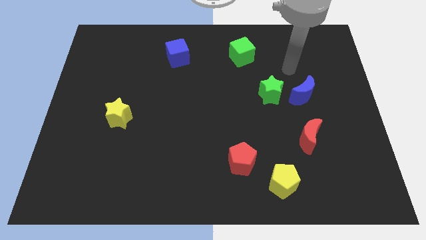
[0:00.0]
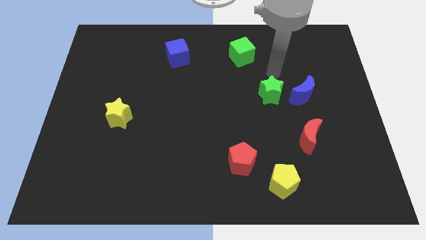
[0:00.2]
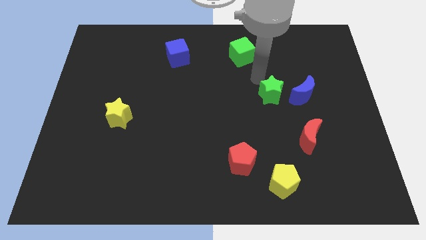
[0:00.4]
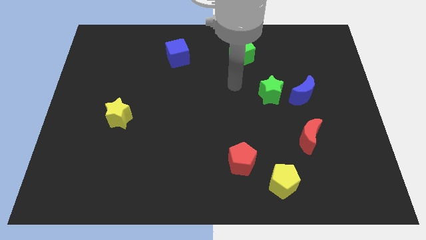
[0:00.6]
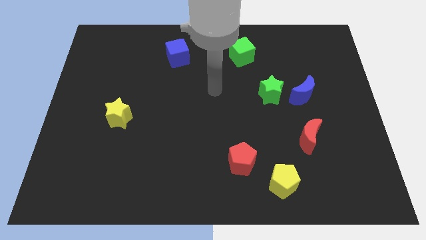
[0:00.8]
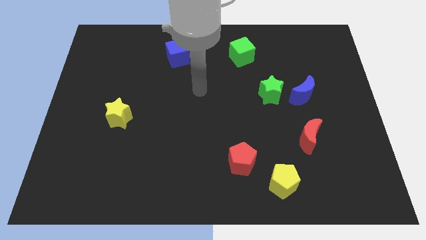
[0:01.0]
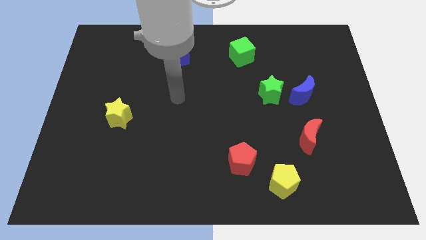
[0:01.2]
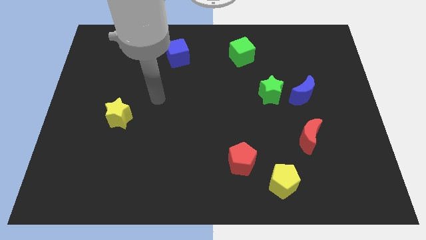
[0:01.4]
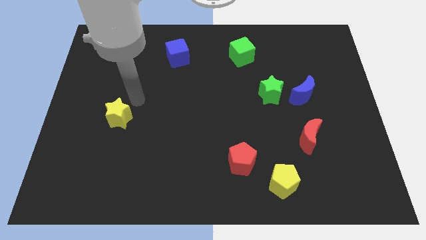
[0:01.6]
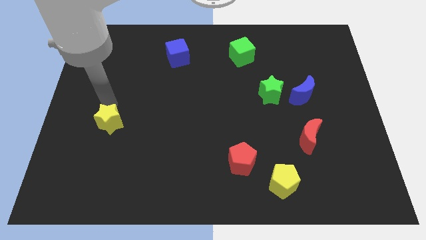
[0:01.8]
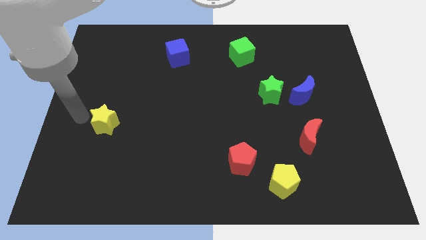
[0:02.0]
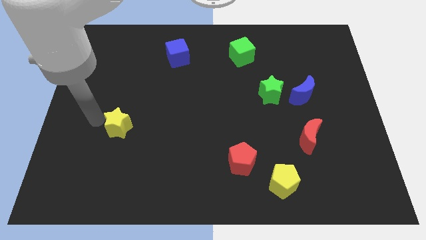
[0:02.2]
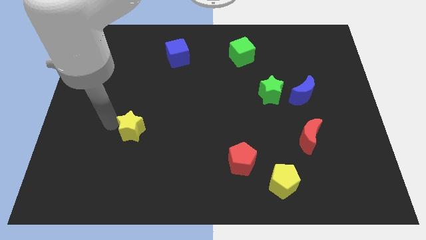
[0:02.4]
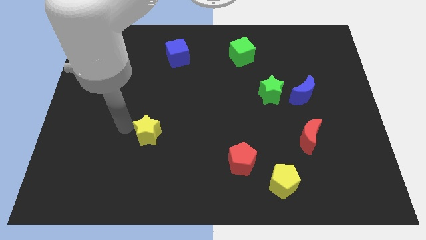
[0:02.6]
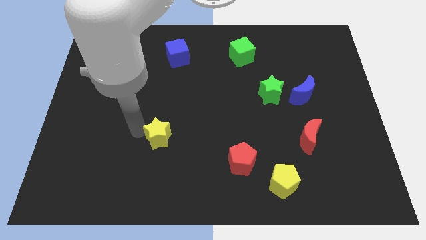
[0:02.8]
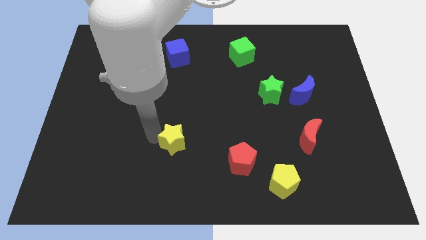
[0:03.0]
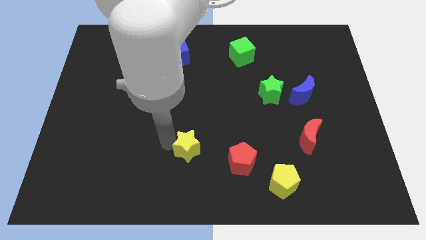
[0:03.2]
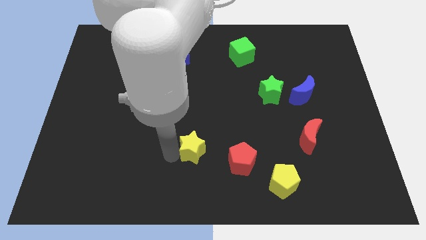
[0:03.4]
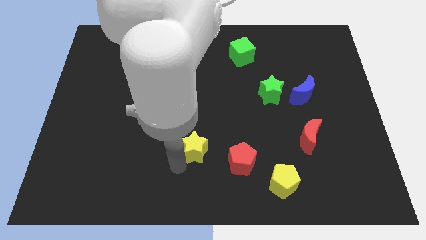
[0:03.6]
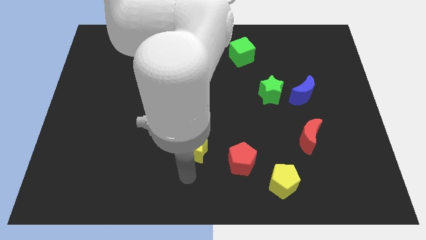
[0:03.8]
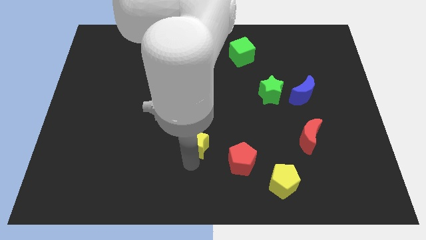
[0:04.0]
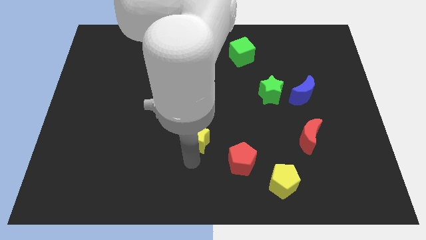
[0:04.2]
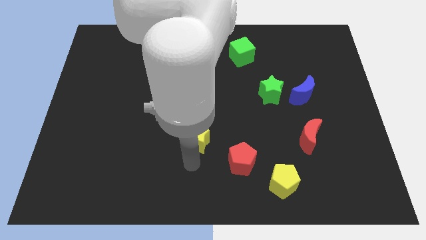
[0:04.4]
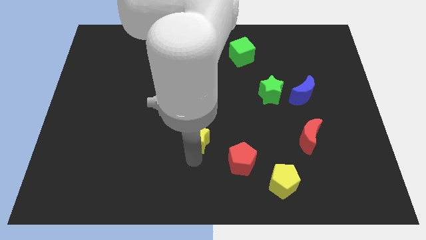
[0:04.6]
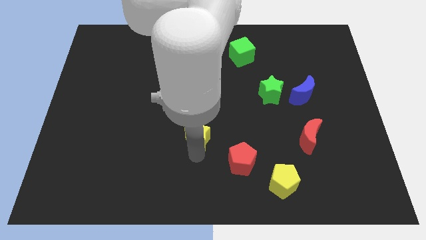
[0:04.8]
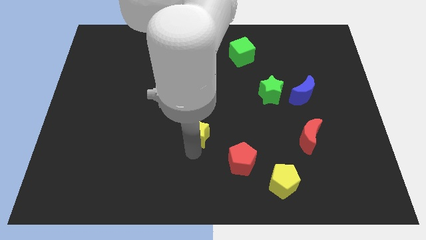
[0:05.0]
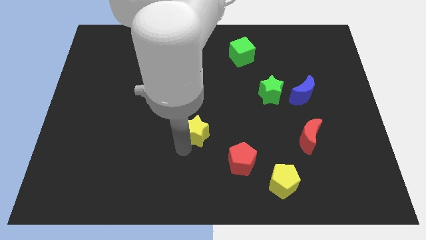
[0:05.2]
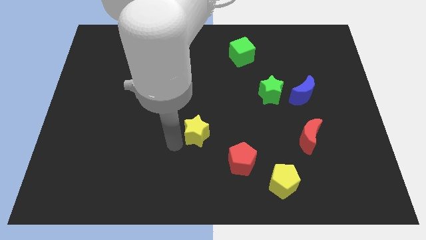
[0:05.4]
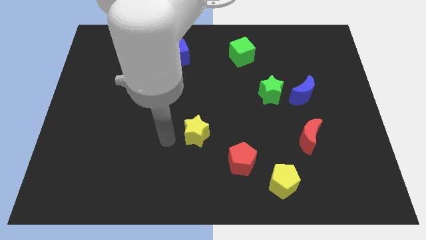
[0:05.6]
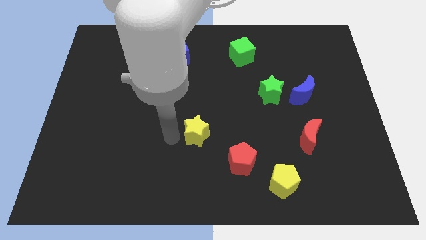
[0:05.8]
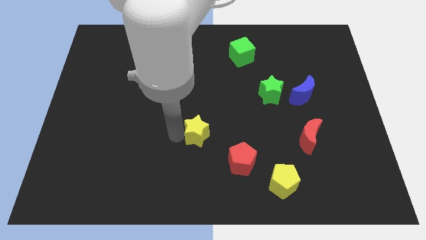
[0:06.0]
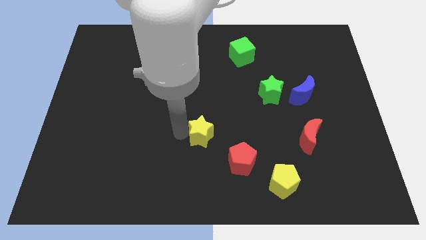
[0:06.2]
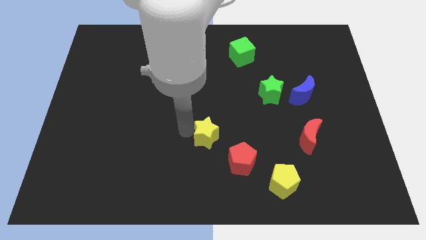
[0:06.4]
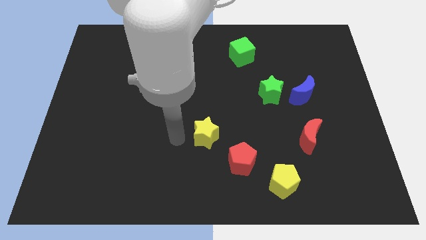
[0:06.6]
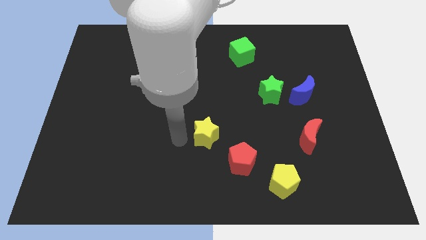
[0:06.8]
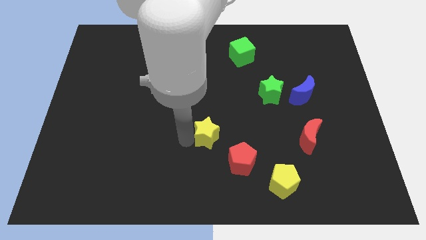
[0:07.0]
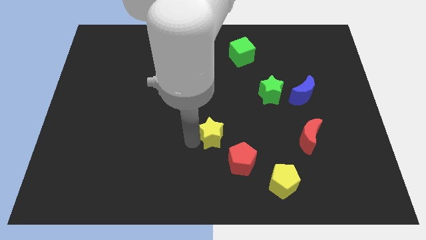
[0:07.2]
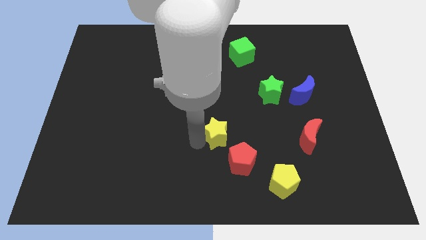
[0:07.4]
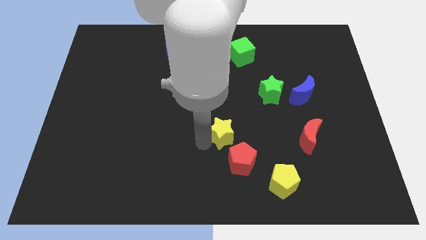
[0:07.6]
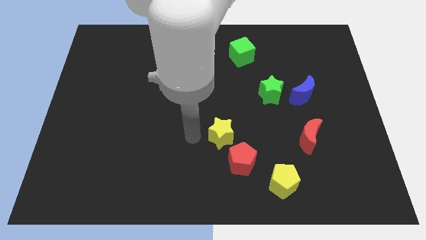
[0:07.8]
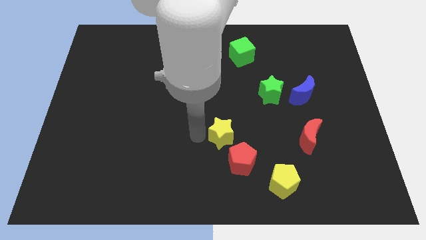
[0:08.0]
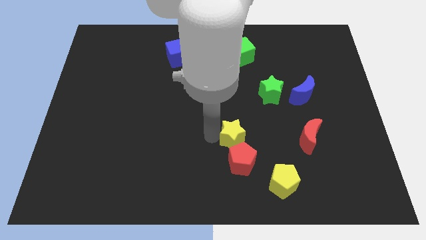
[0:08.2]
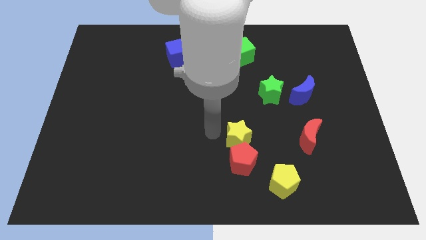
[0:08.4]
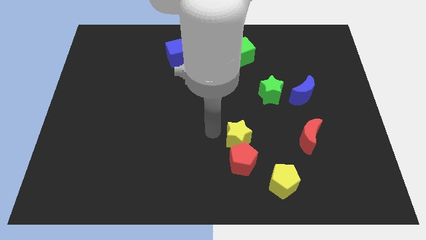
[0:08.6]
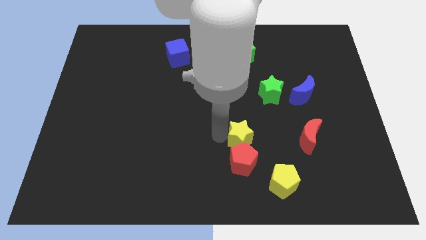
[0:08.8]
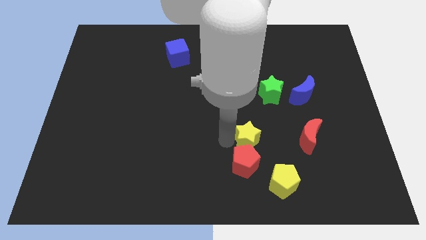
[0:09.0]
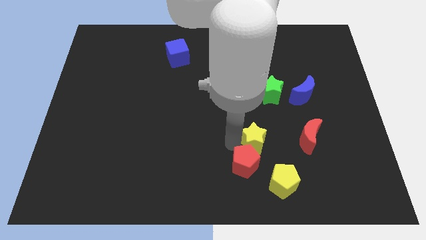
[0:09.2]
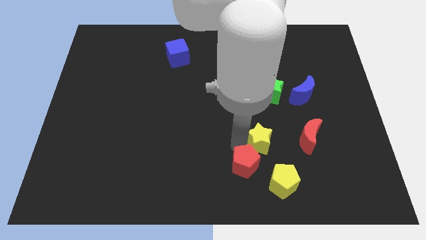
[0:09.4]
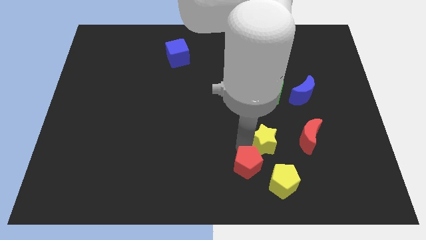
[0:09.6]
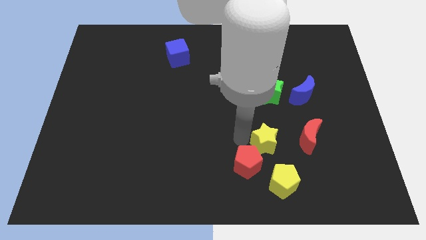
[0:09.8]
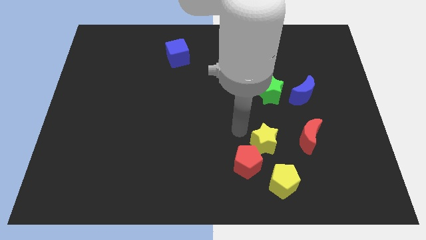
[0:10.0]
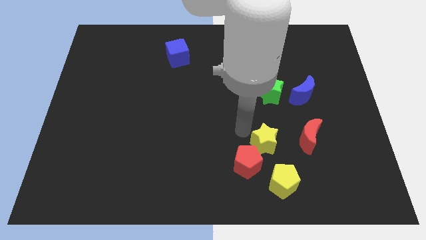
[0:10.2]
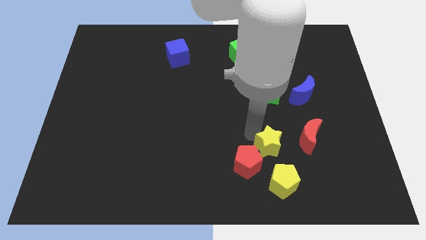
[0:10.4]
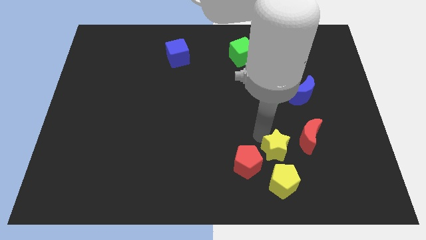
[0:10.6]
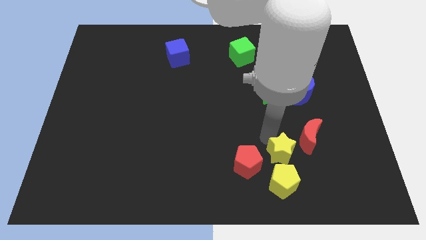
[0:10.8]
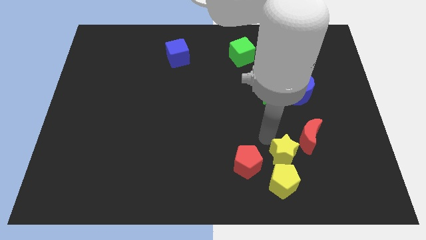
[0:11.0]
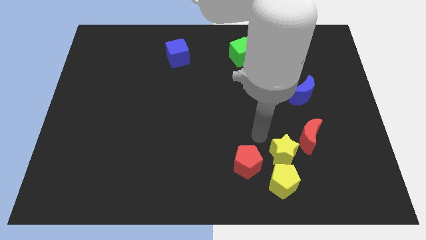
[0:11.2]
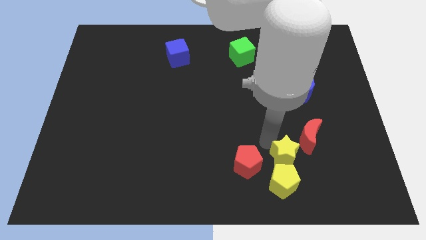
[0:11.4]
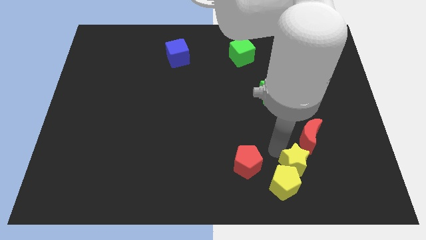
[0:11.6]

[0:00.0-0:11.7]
slide the yellow star below the red moon

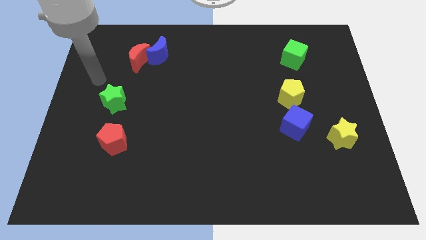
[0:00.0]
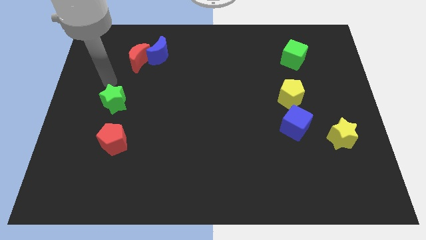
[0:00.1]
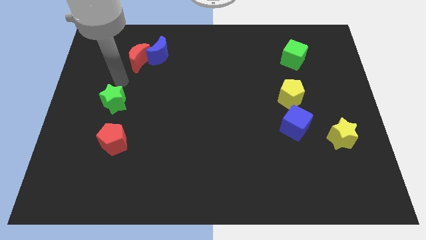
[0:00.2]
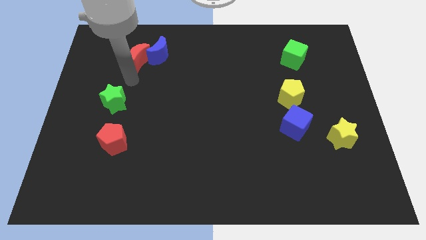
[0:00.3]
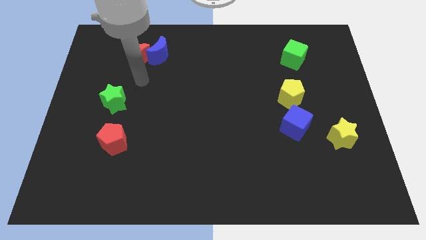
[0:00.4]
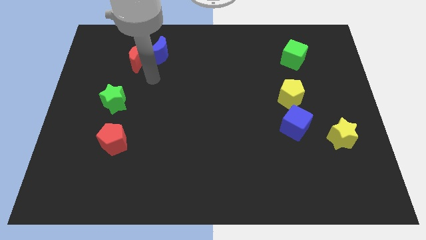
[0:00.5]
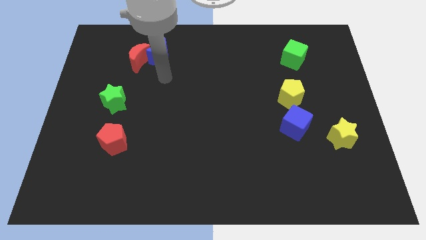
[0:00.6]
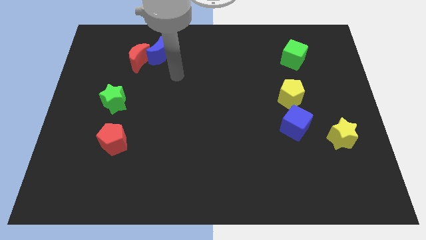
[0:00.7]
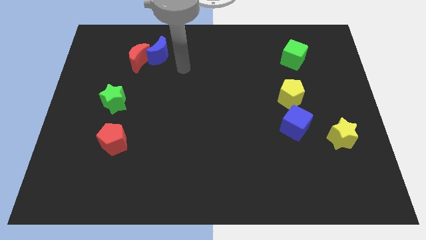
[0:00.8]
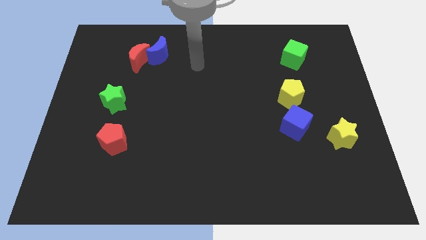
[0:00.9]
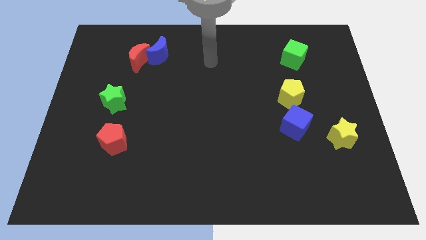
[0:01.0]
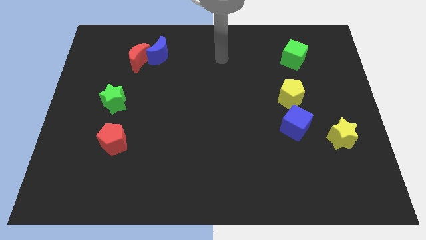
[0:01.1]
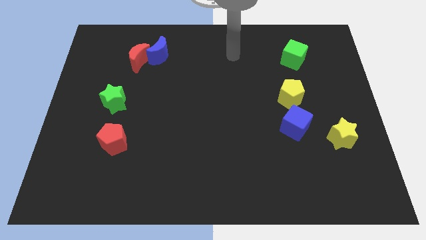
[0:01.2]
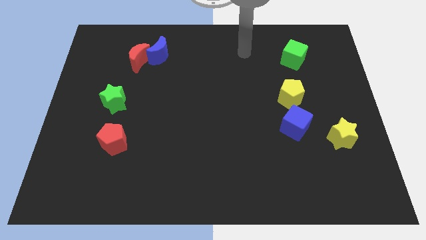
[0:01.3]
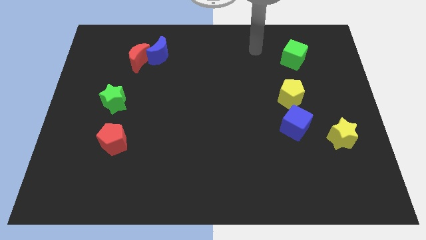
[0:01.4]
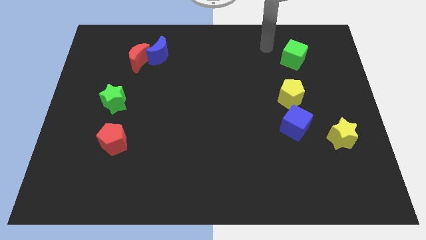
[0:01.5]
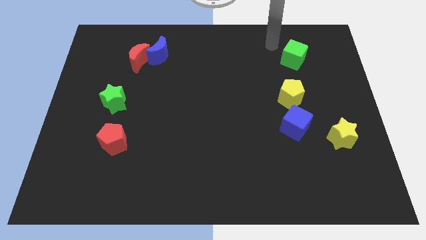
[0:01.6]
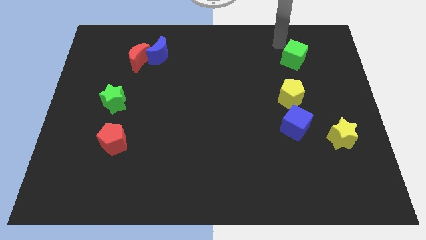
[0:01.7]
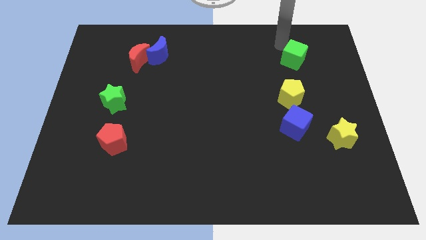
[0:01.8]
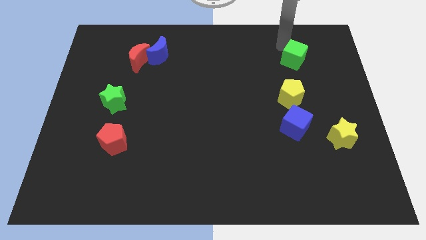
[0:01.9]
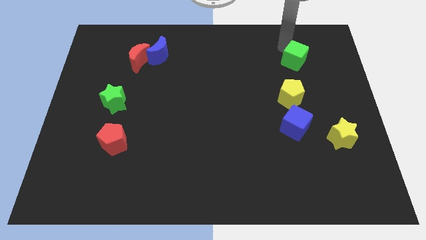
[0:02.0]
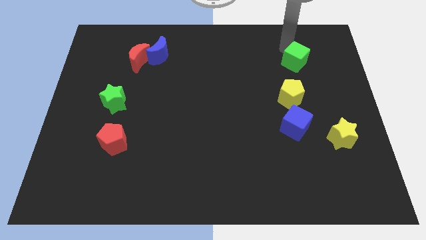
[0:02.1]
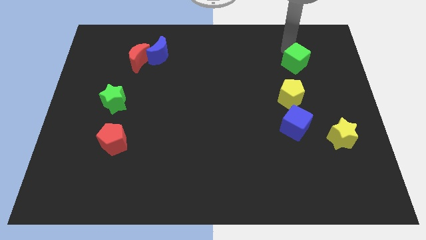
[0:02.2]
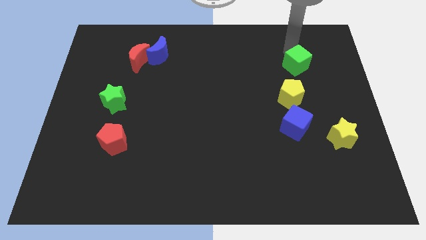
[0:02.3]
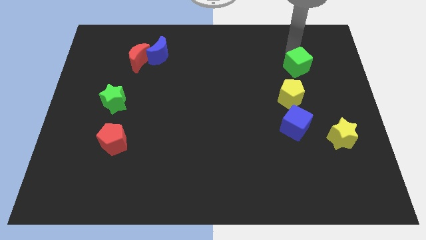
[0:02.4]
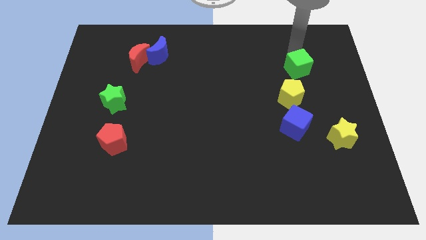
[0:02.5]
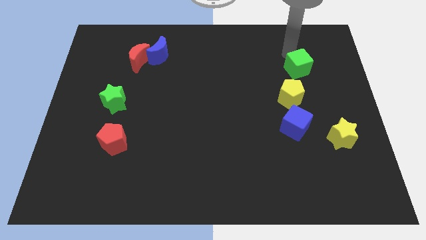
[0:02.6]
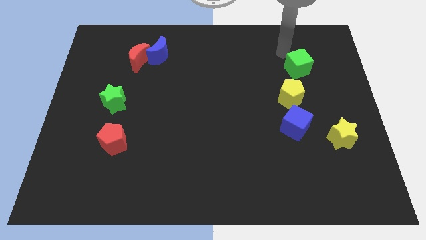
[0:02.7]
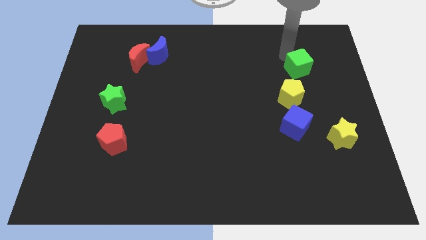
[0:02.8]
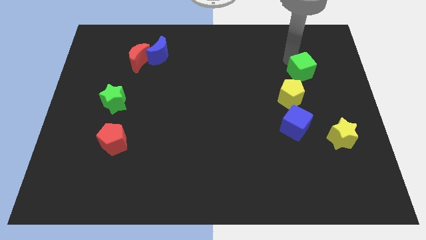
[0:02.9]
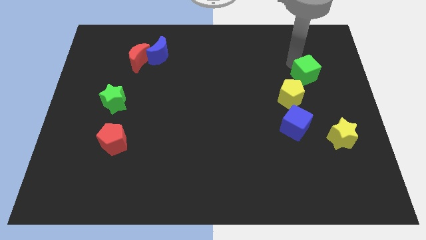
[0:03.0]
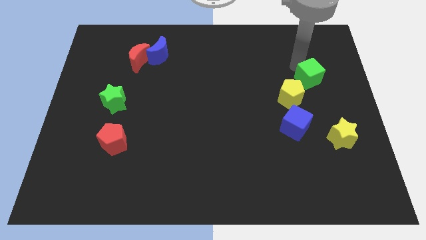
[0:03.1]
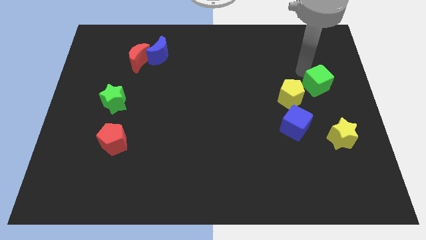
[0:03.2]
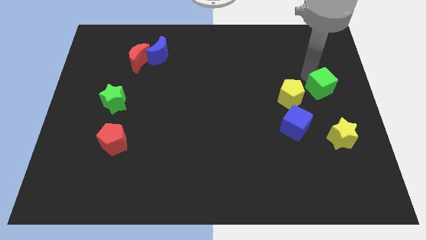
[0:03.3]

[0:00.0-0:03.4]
slide the green cube to the top of the yellow star
